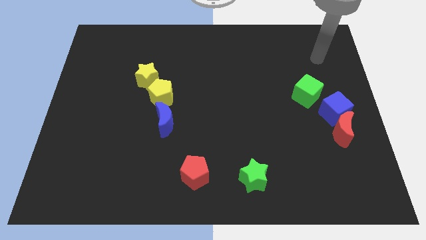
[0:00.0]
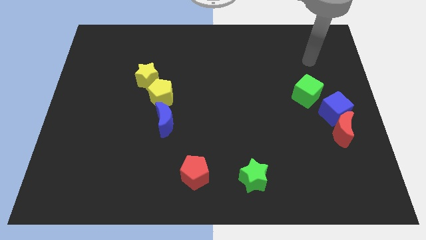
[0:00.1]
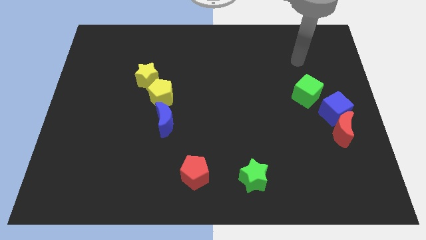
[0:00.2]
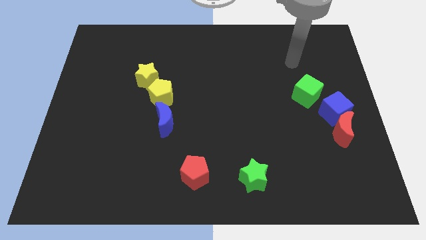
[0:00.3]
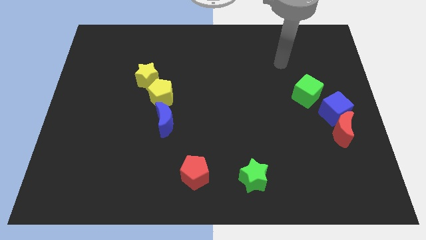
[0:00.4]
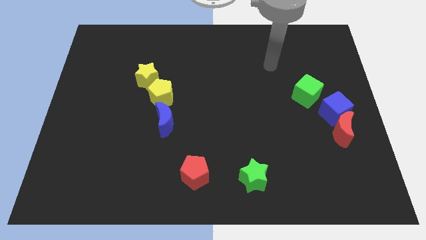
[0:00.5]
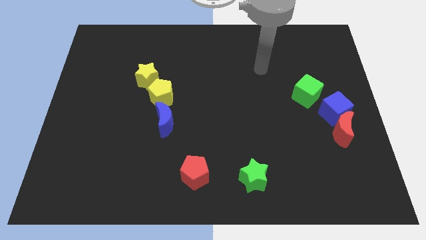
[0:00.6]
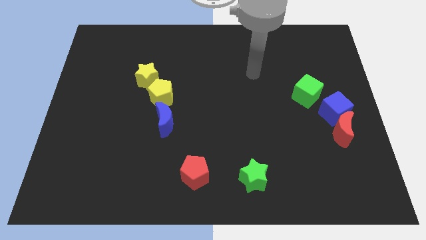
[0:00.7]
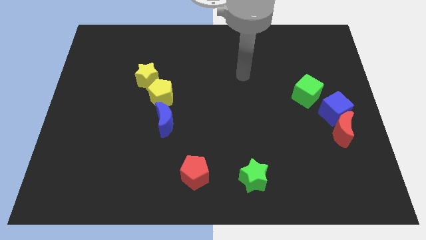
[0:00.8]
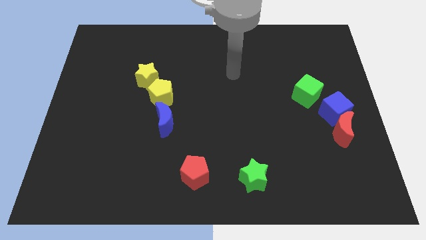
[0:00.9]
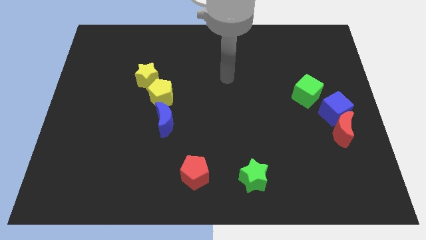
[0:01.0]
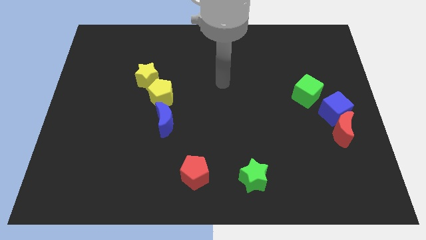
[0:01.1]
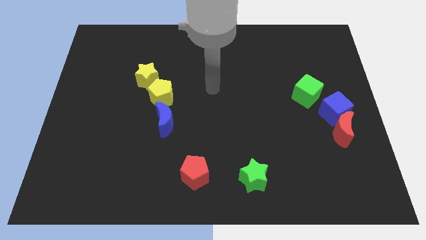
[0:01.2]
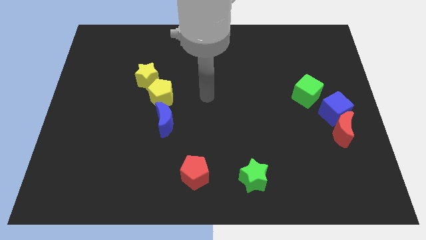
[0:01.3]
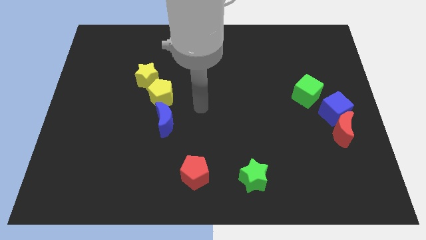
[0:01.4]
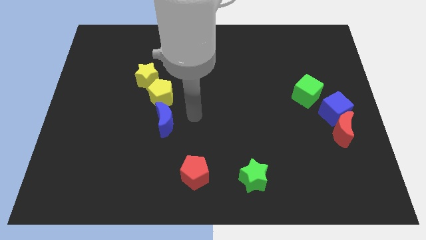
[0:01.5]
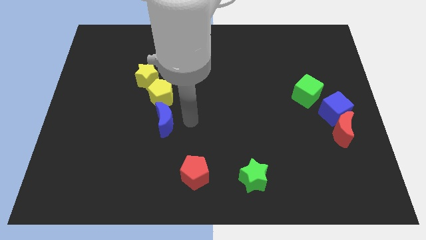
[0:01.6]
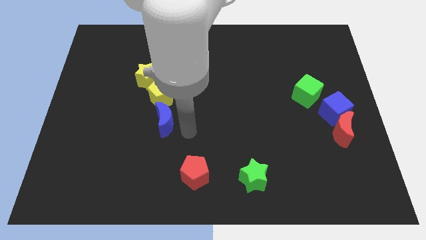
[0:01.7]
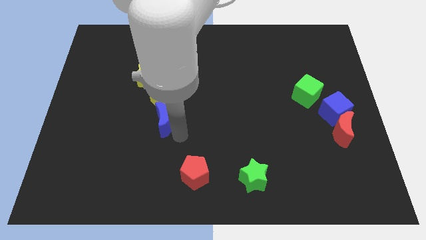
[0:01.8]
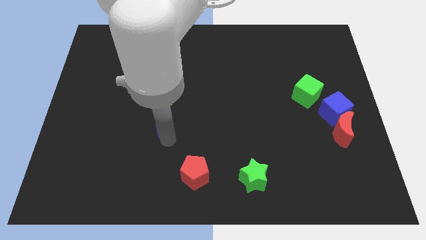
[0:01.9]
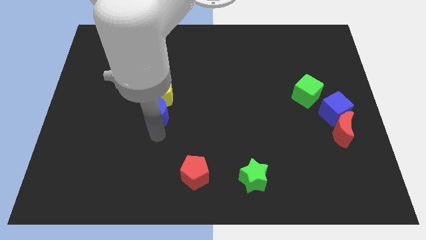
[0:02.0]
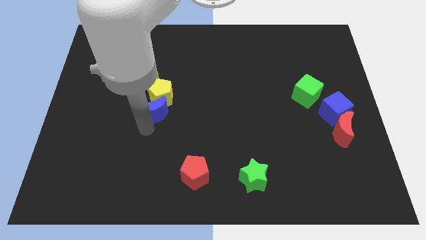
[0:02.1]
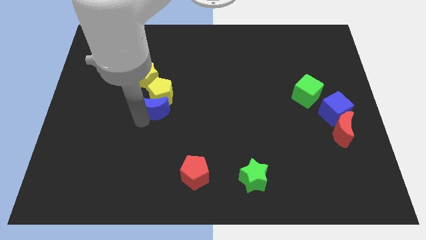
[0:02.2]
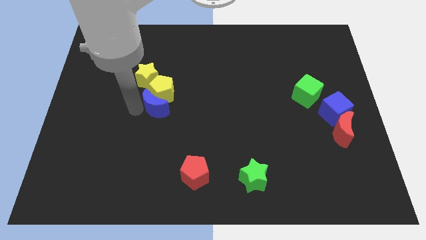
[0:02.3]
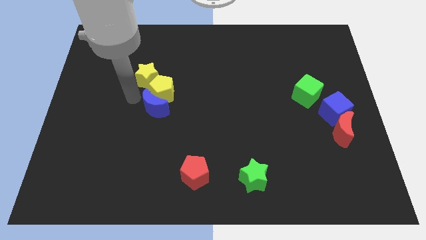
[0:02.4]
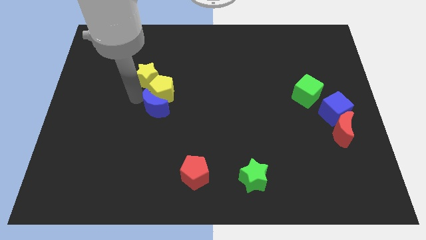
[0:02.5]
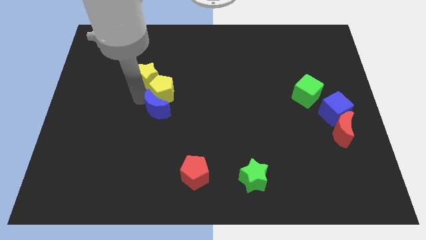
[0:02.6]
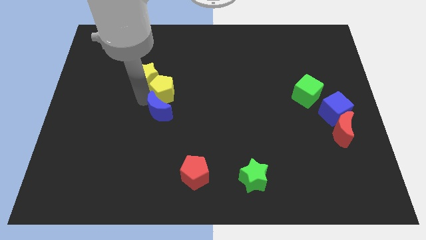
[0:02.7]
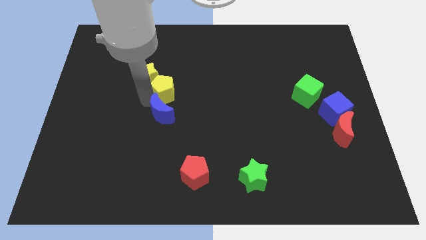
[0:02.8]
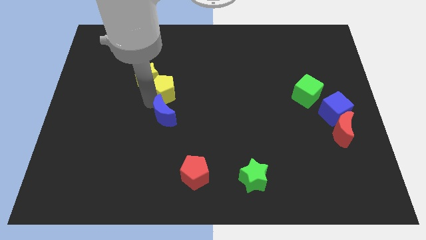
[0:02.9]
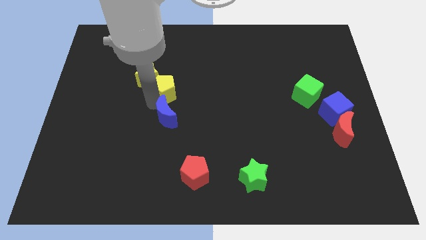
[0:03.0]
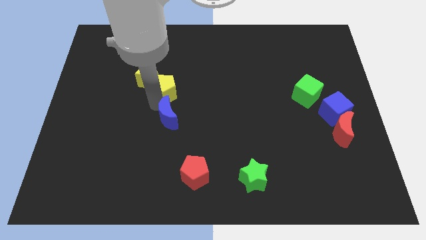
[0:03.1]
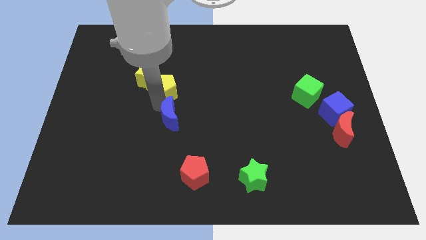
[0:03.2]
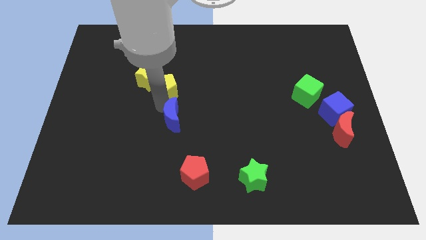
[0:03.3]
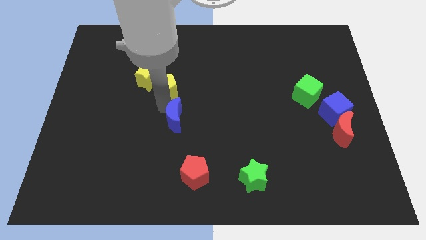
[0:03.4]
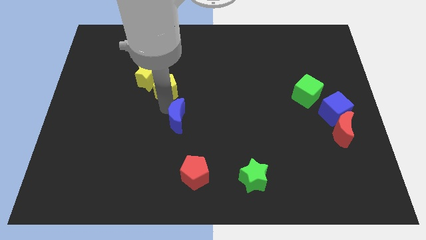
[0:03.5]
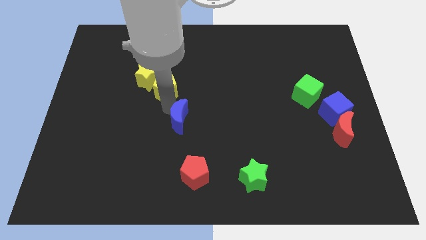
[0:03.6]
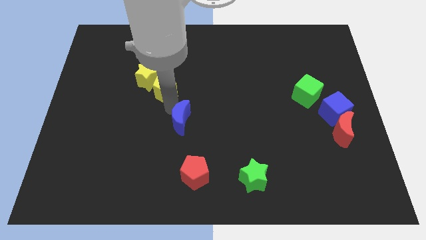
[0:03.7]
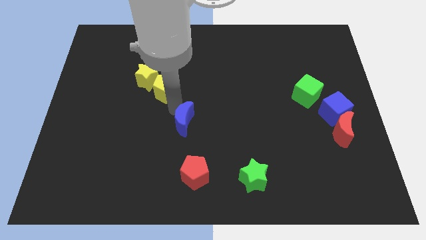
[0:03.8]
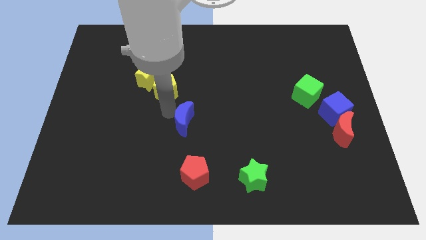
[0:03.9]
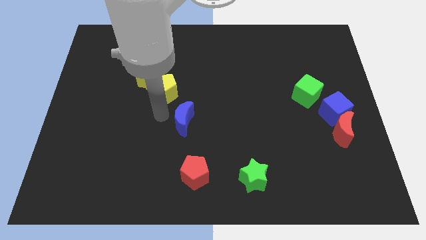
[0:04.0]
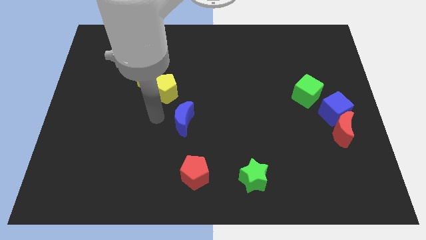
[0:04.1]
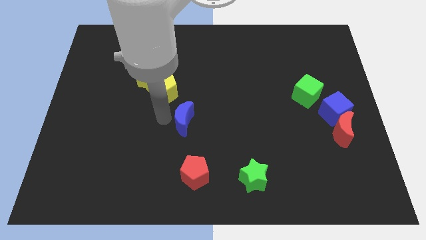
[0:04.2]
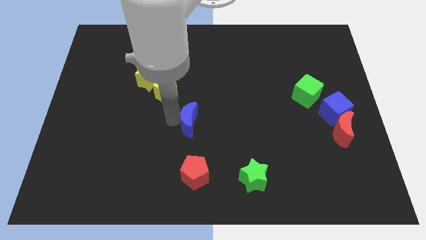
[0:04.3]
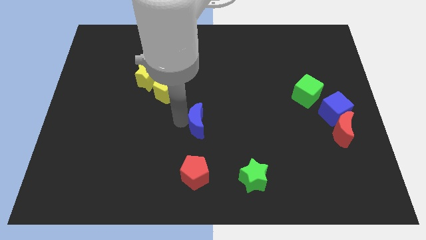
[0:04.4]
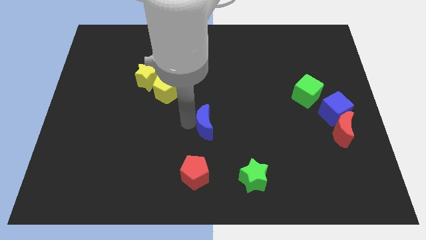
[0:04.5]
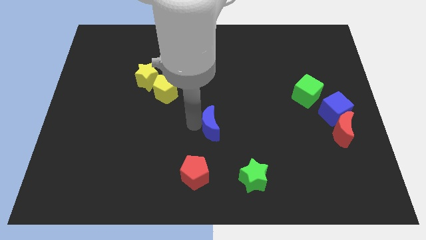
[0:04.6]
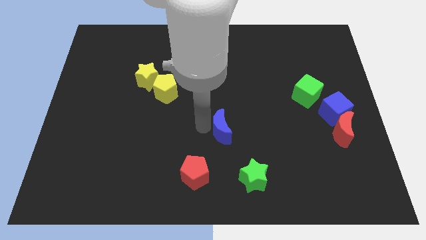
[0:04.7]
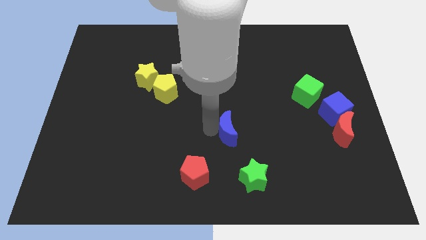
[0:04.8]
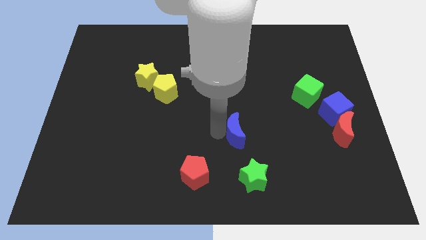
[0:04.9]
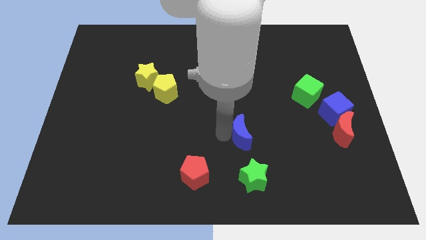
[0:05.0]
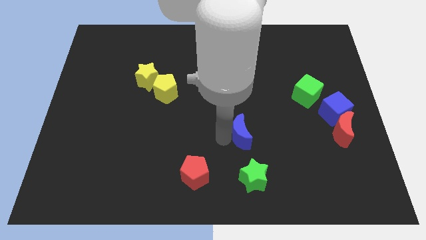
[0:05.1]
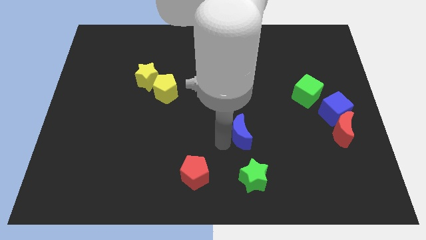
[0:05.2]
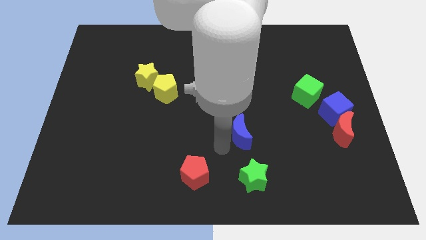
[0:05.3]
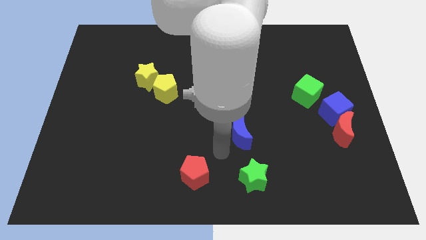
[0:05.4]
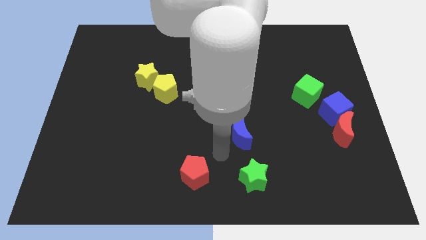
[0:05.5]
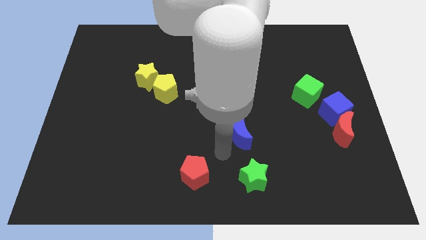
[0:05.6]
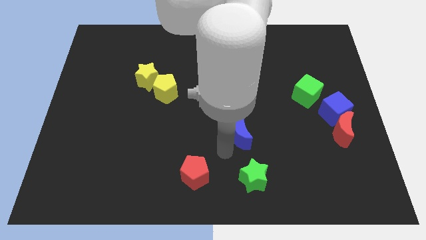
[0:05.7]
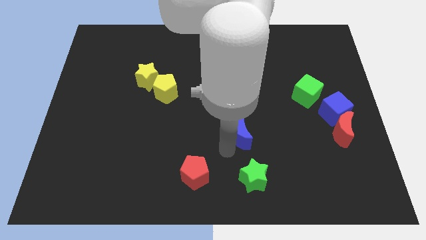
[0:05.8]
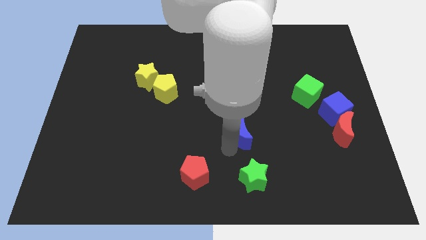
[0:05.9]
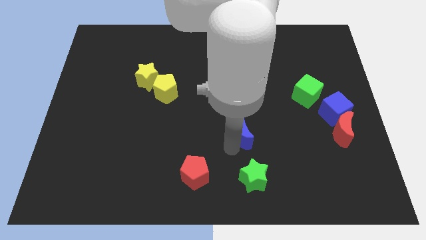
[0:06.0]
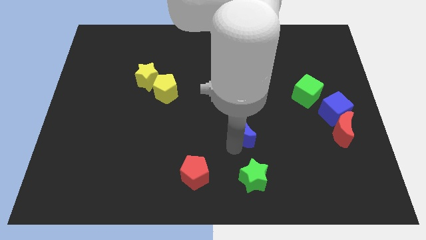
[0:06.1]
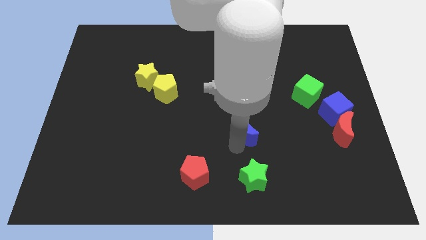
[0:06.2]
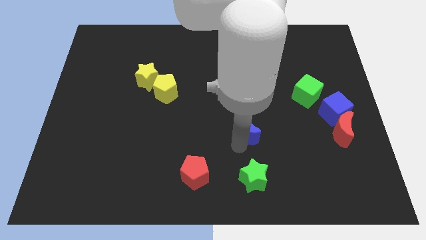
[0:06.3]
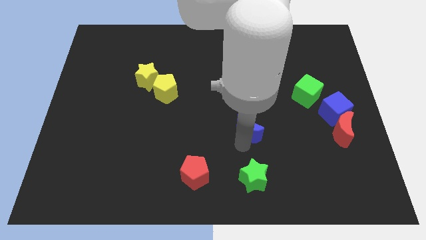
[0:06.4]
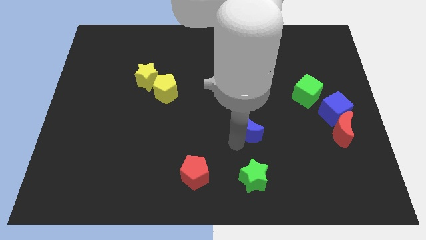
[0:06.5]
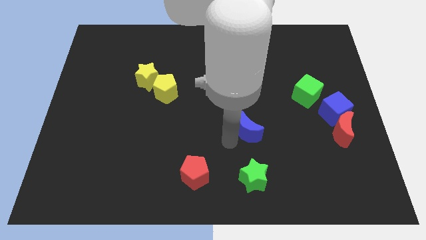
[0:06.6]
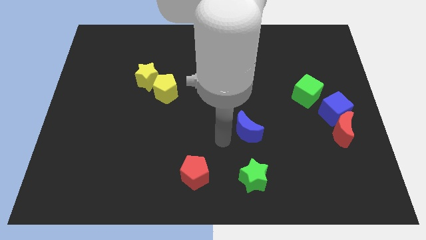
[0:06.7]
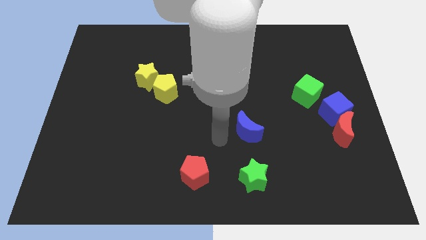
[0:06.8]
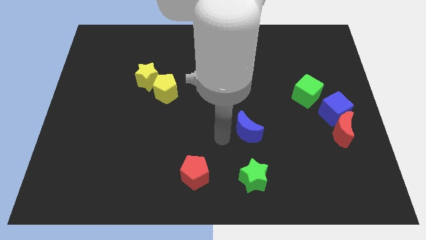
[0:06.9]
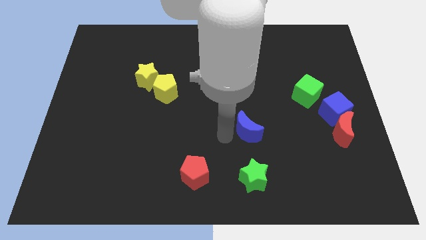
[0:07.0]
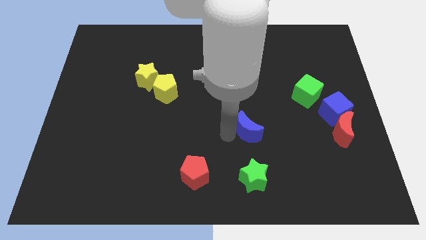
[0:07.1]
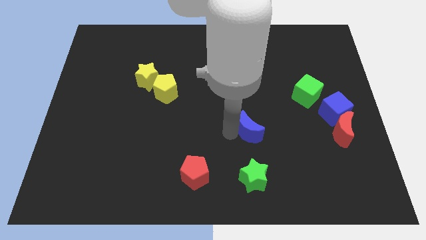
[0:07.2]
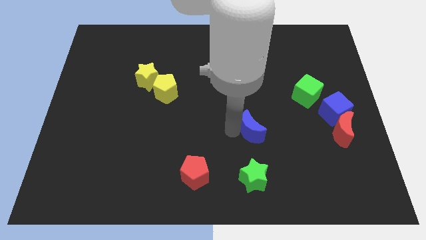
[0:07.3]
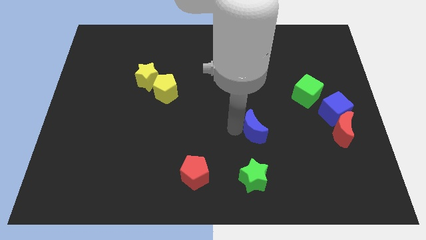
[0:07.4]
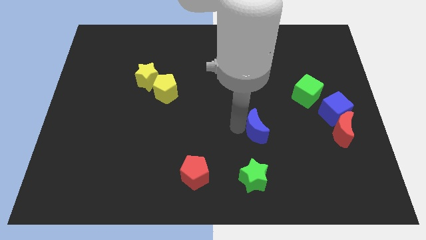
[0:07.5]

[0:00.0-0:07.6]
move the blue moon to the right

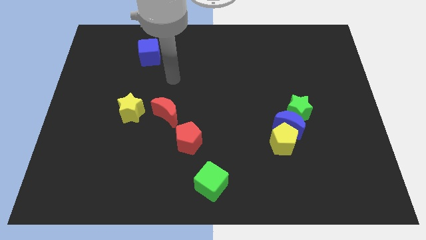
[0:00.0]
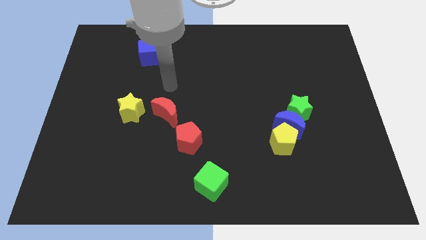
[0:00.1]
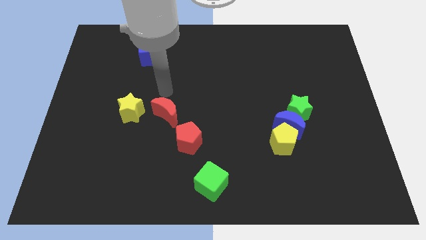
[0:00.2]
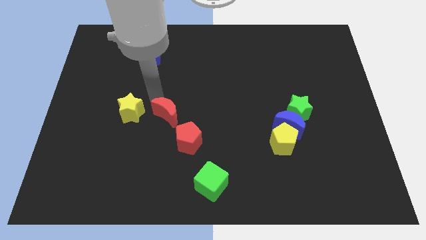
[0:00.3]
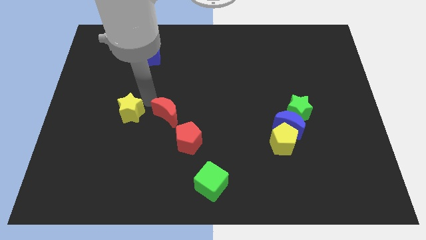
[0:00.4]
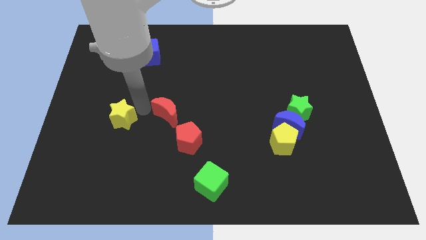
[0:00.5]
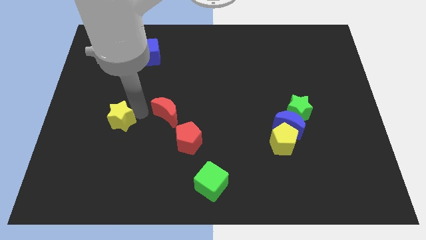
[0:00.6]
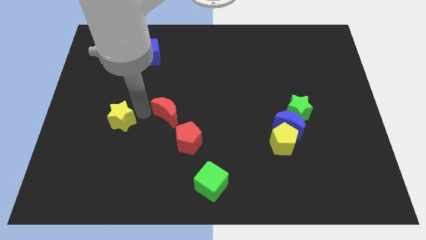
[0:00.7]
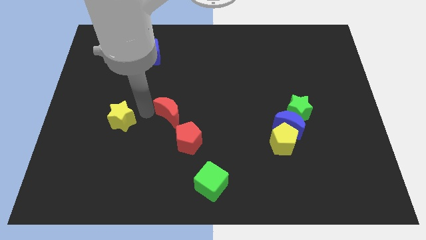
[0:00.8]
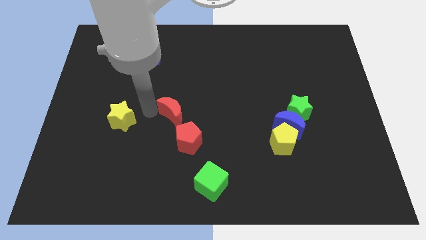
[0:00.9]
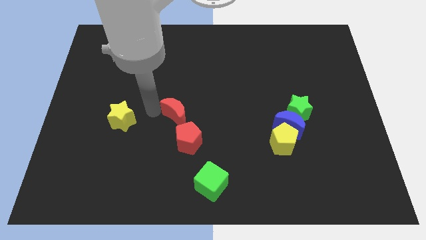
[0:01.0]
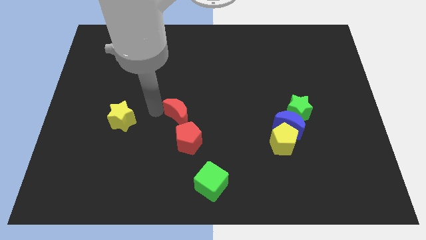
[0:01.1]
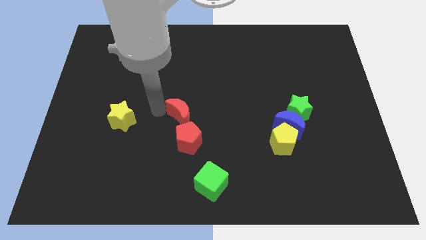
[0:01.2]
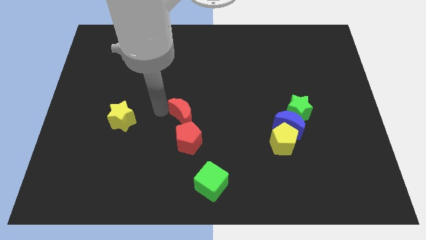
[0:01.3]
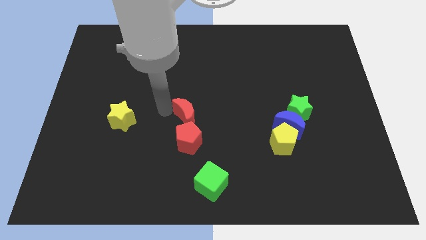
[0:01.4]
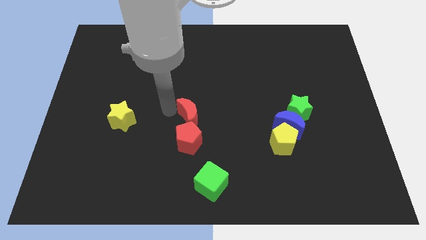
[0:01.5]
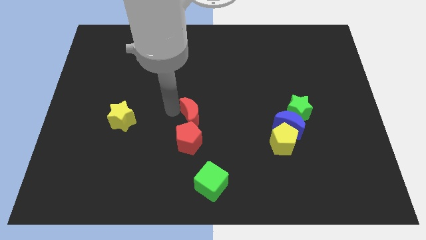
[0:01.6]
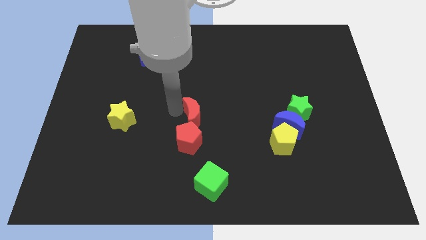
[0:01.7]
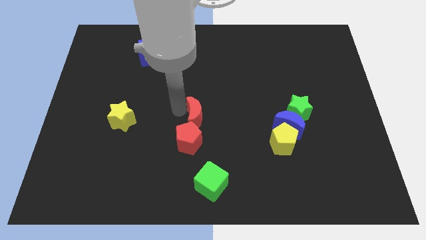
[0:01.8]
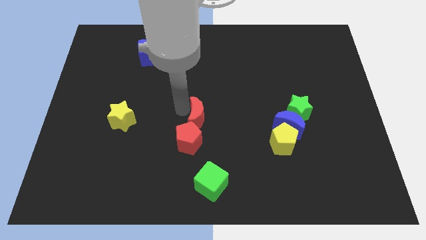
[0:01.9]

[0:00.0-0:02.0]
slide the red moon right a little bit
